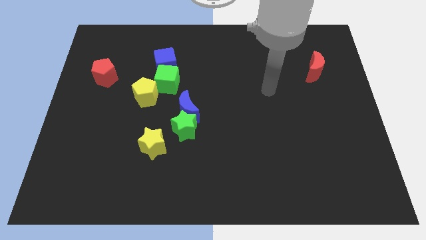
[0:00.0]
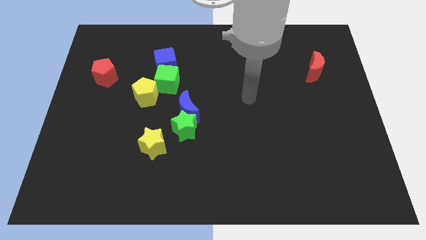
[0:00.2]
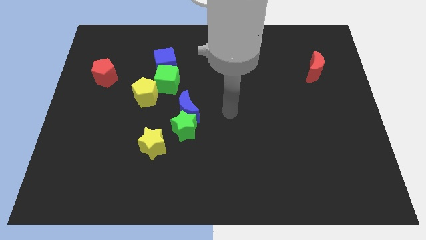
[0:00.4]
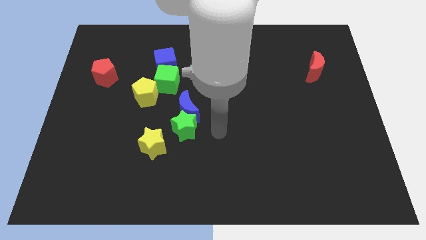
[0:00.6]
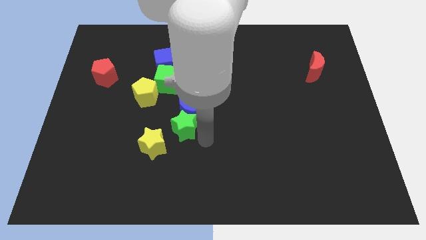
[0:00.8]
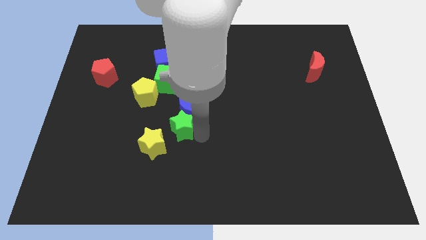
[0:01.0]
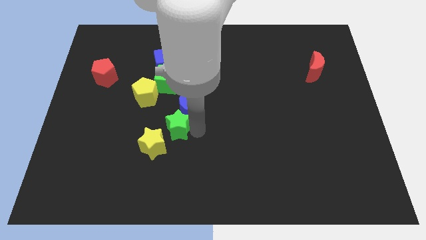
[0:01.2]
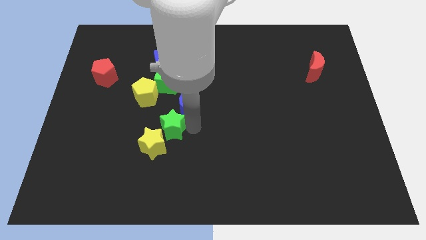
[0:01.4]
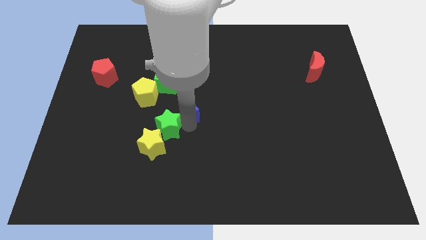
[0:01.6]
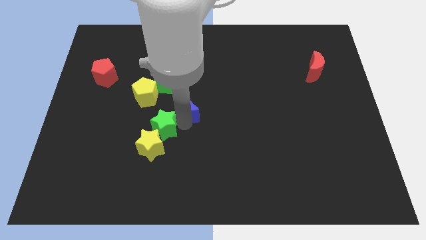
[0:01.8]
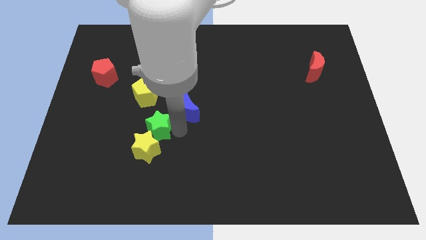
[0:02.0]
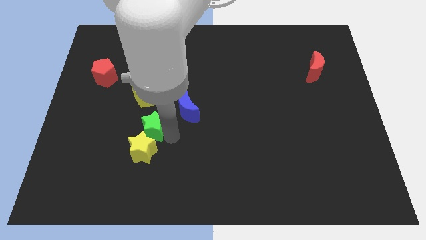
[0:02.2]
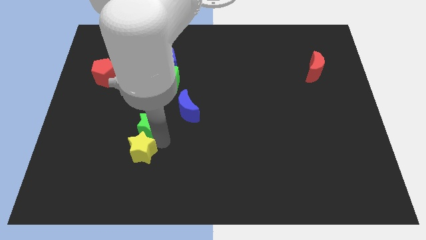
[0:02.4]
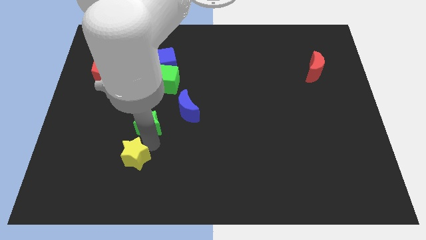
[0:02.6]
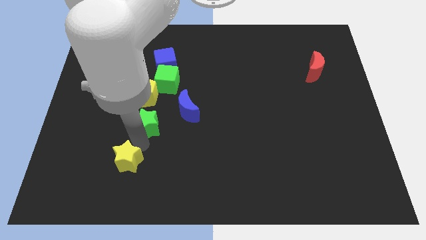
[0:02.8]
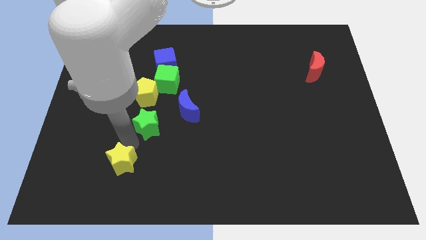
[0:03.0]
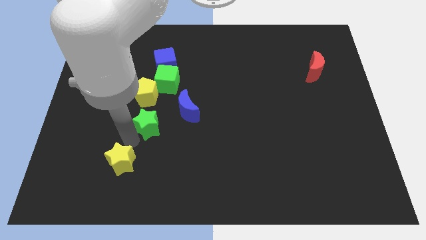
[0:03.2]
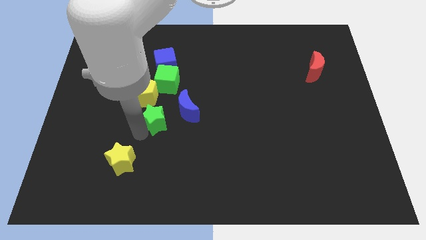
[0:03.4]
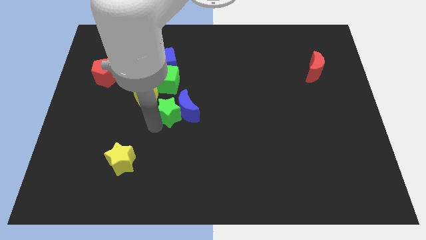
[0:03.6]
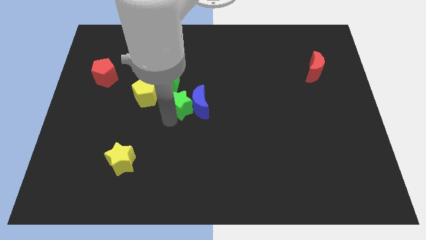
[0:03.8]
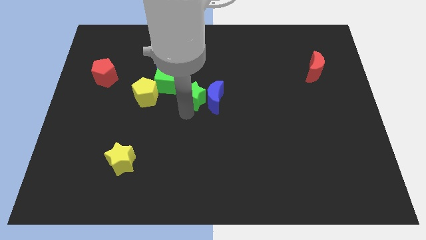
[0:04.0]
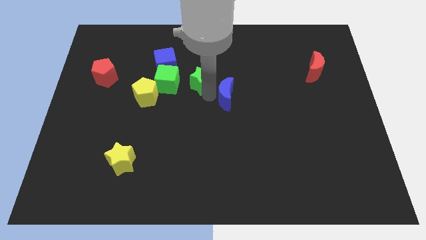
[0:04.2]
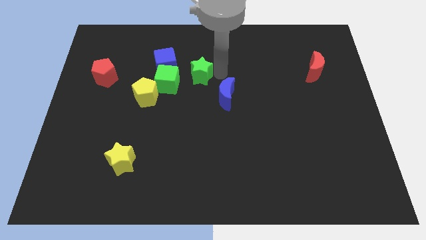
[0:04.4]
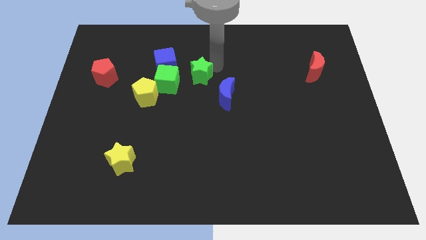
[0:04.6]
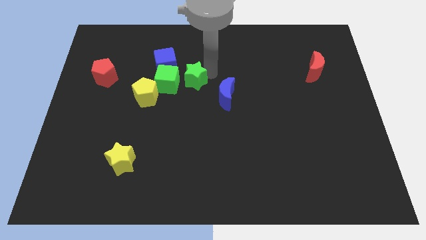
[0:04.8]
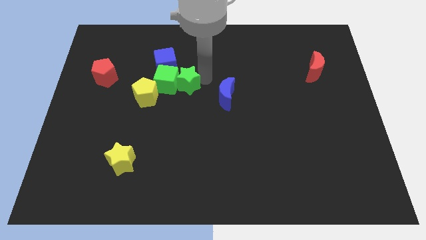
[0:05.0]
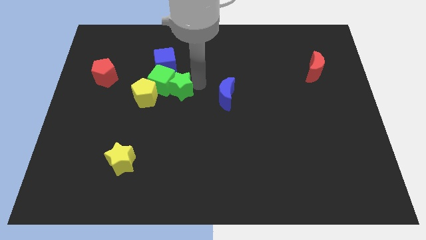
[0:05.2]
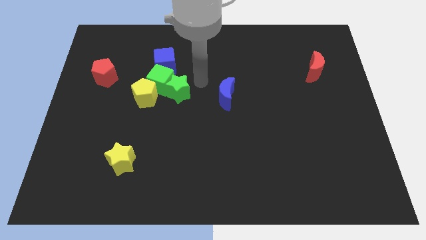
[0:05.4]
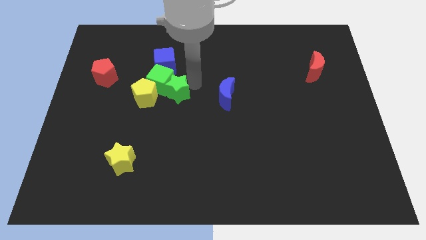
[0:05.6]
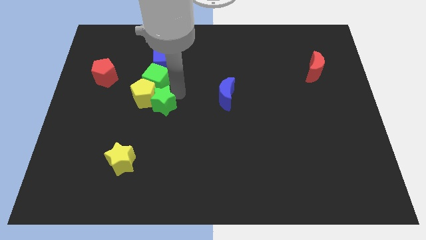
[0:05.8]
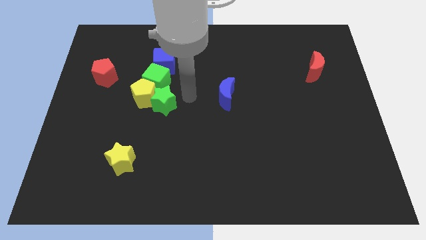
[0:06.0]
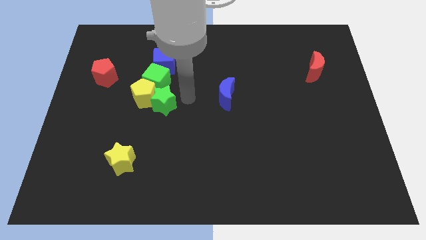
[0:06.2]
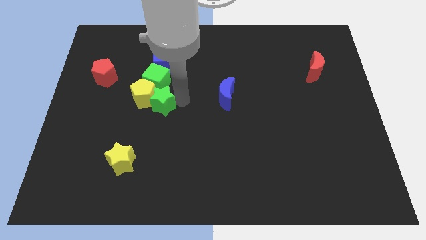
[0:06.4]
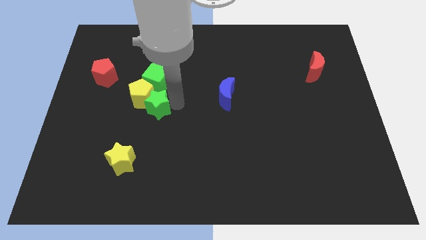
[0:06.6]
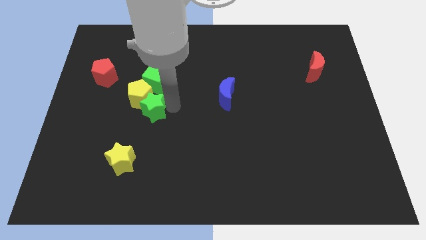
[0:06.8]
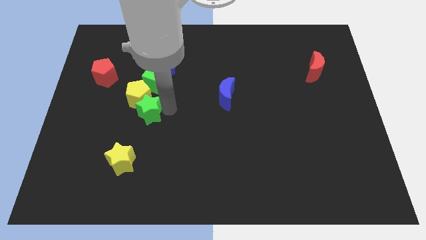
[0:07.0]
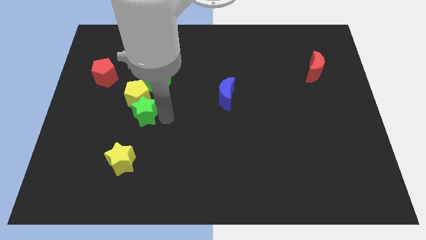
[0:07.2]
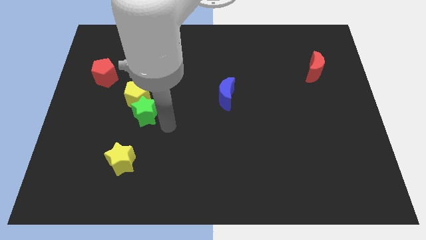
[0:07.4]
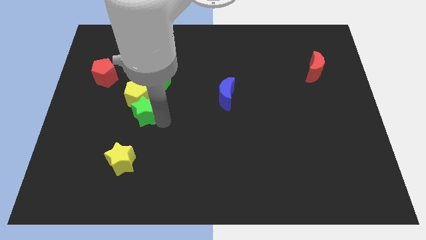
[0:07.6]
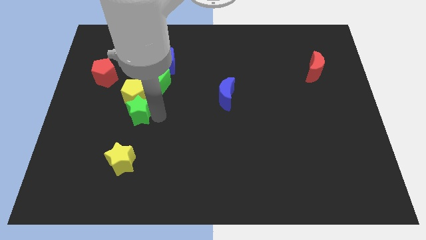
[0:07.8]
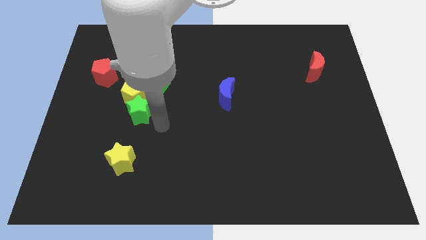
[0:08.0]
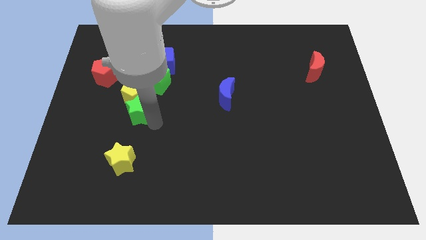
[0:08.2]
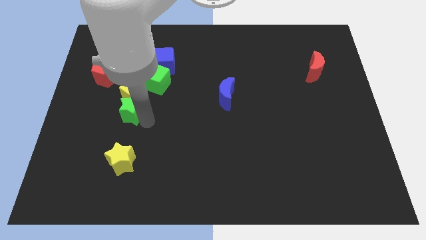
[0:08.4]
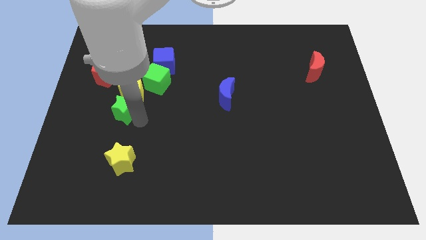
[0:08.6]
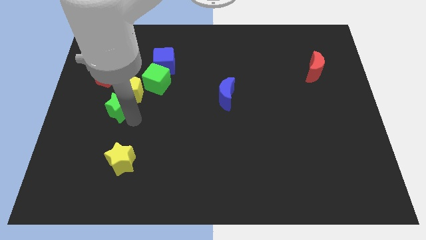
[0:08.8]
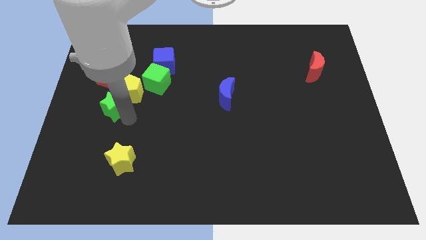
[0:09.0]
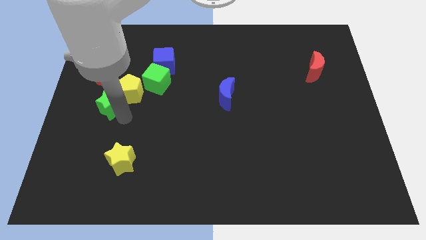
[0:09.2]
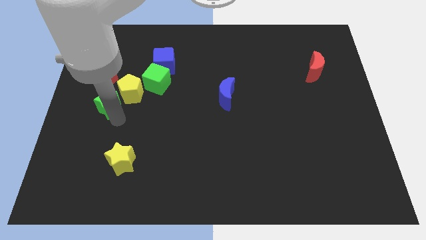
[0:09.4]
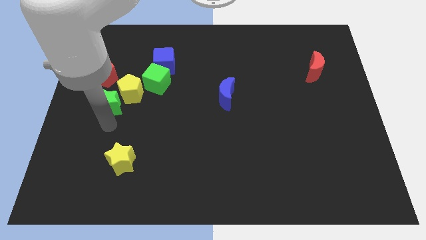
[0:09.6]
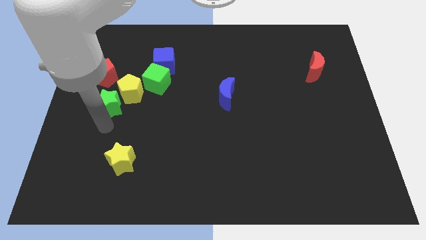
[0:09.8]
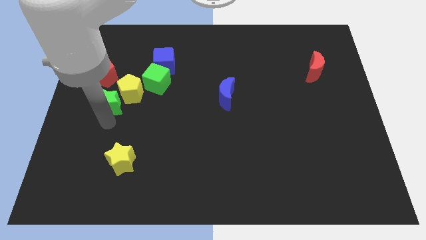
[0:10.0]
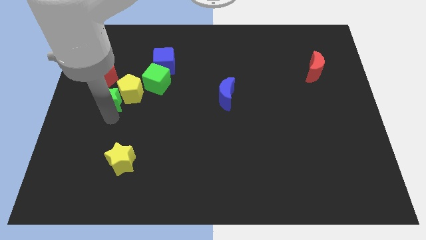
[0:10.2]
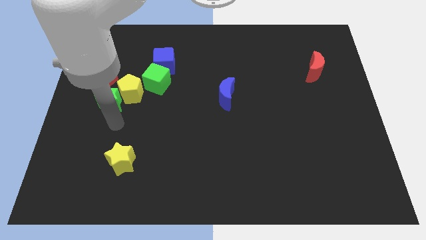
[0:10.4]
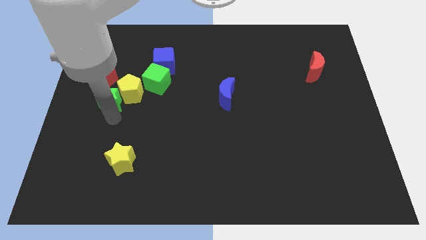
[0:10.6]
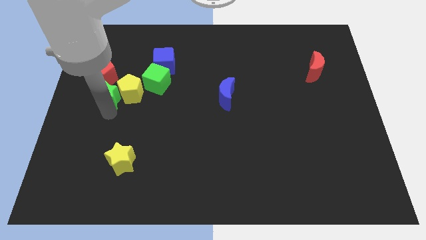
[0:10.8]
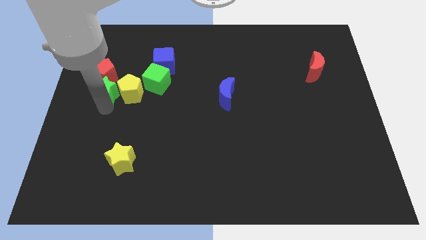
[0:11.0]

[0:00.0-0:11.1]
push the green star close to the red pentagon
